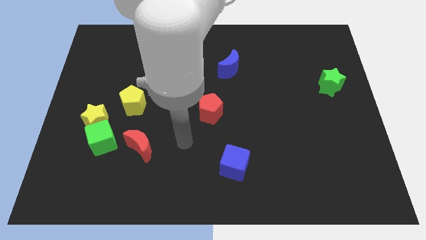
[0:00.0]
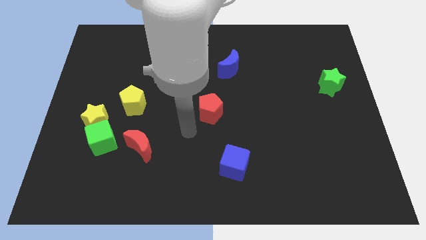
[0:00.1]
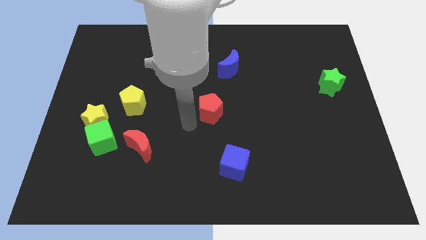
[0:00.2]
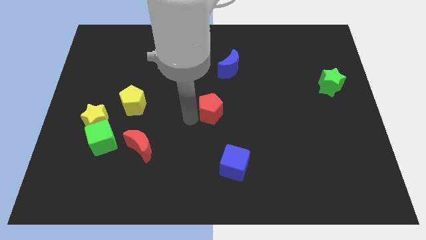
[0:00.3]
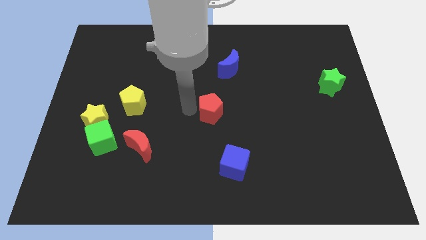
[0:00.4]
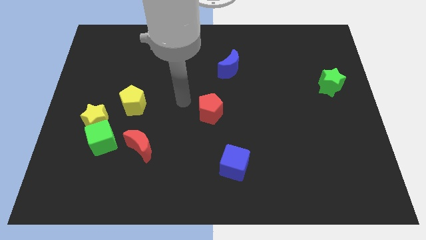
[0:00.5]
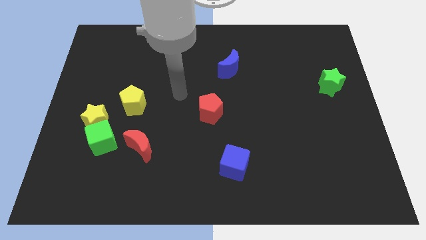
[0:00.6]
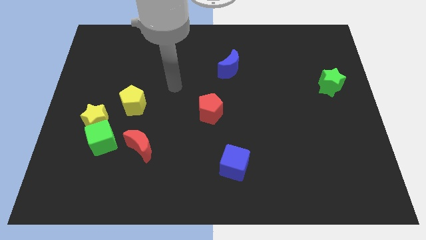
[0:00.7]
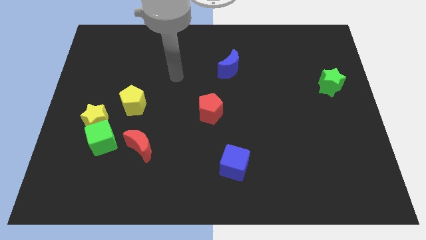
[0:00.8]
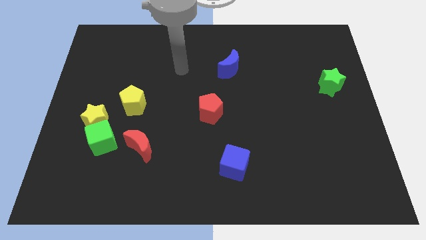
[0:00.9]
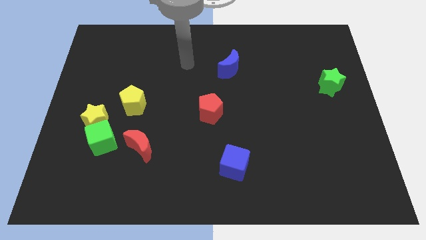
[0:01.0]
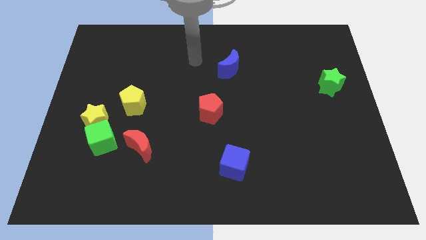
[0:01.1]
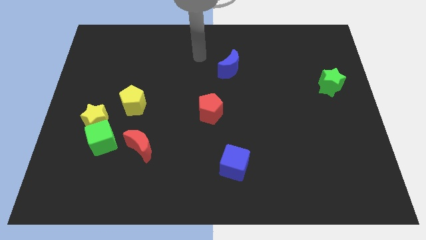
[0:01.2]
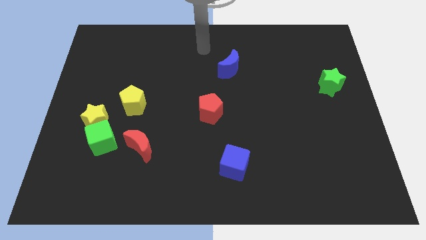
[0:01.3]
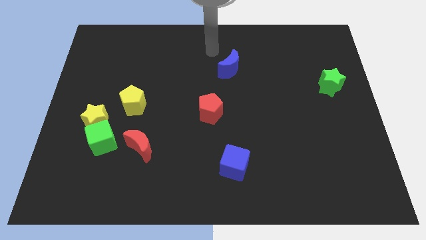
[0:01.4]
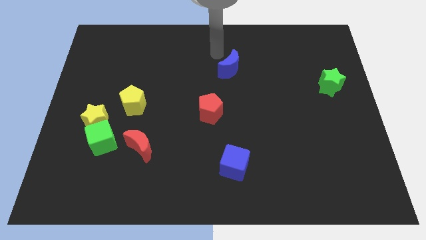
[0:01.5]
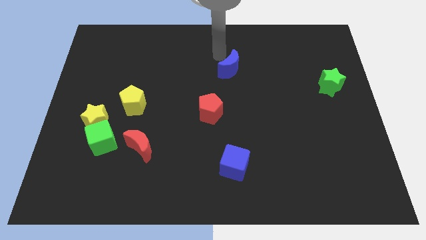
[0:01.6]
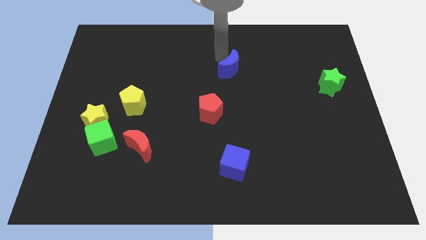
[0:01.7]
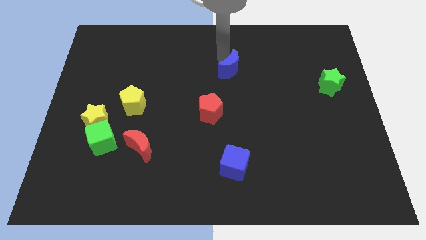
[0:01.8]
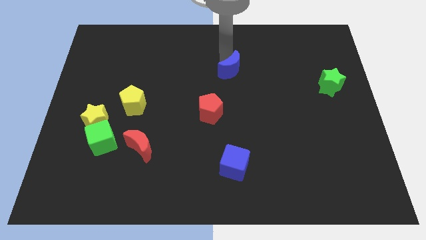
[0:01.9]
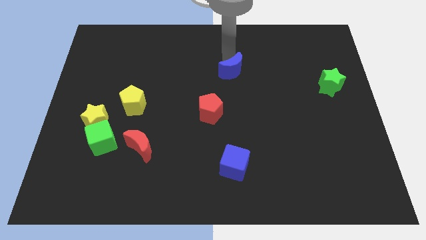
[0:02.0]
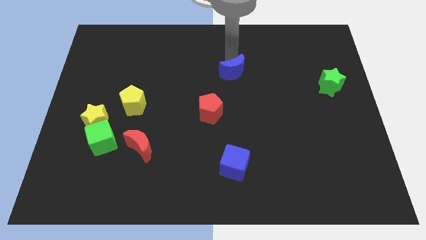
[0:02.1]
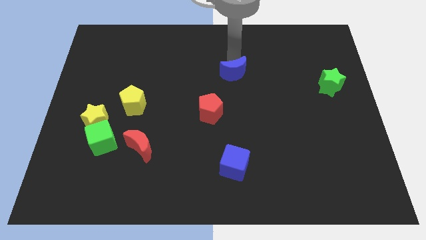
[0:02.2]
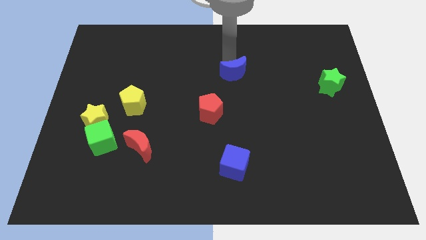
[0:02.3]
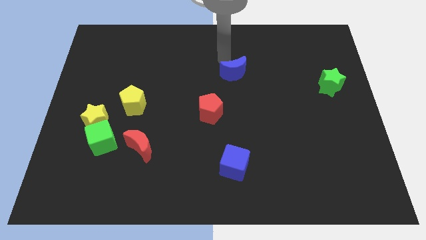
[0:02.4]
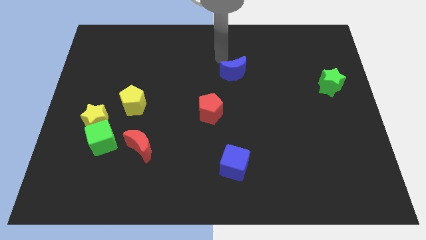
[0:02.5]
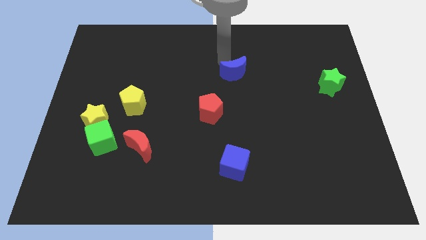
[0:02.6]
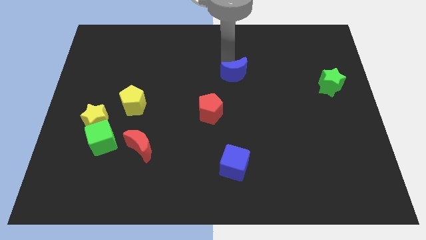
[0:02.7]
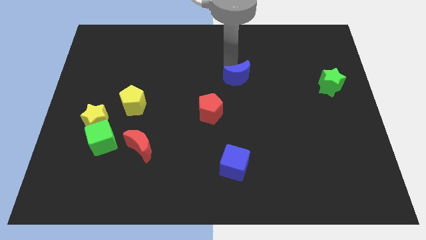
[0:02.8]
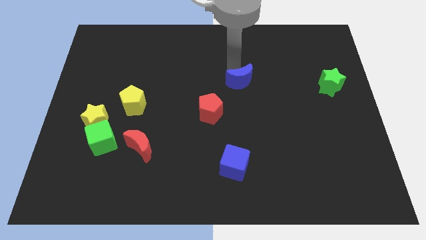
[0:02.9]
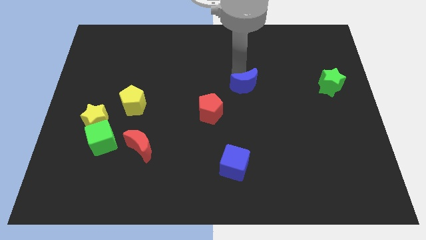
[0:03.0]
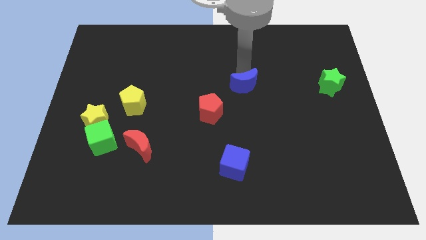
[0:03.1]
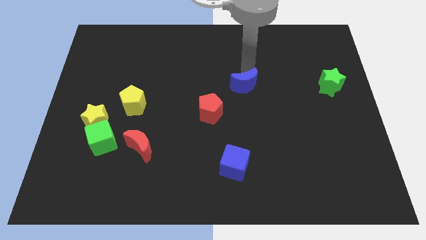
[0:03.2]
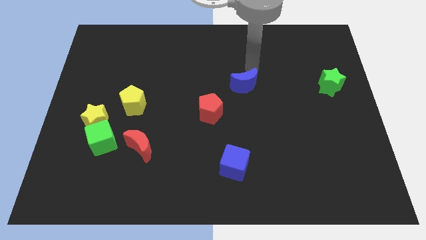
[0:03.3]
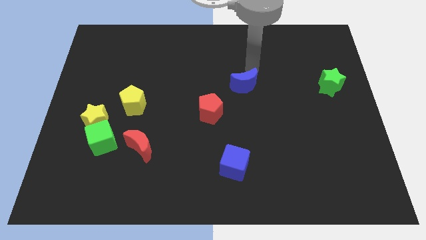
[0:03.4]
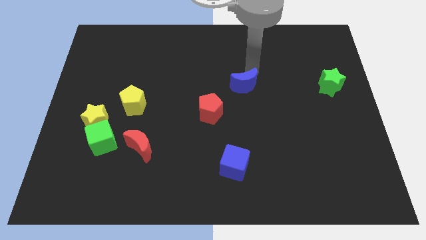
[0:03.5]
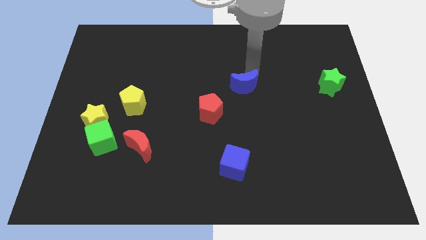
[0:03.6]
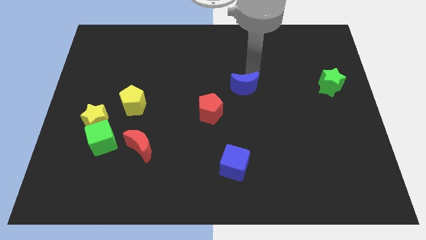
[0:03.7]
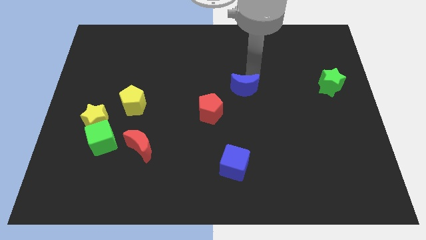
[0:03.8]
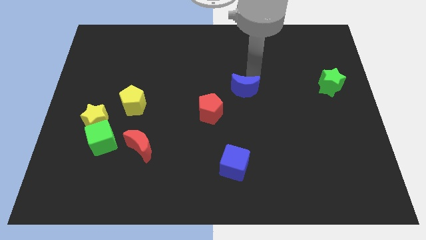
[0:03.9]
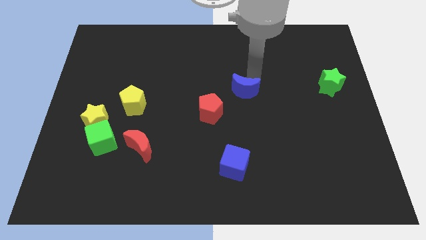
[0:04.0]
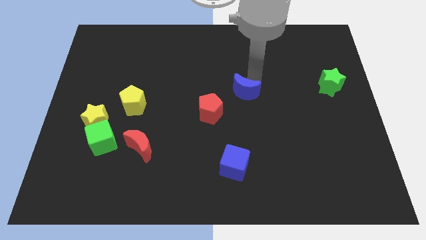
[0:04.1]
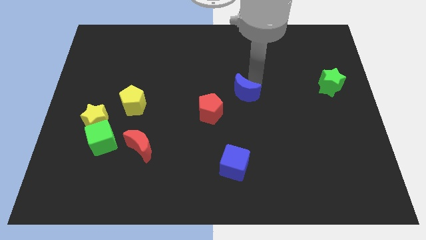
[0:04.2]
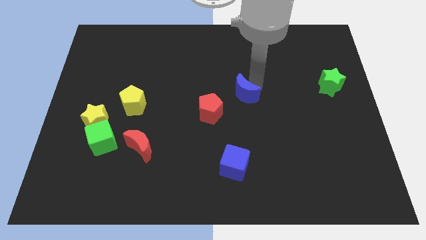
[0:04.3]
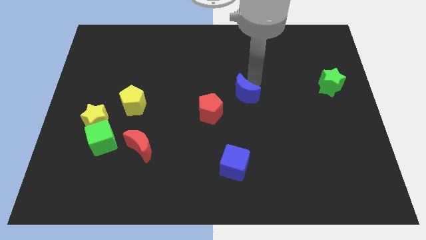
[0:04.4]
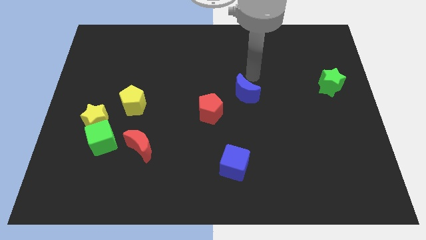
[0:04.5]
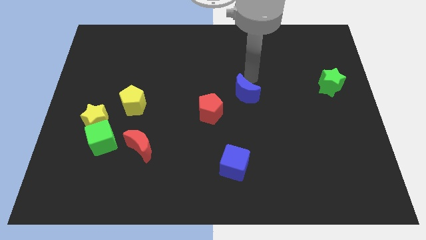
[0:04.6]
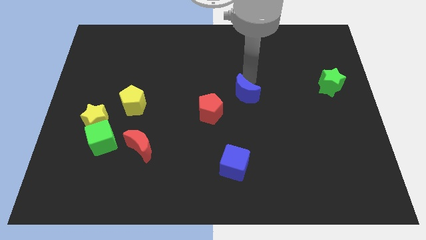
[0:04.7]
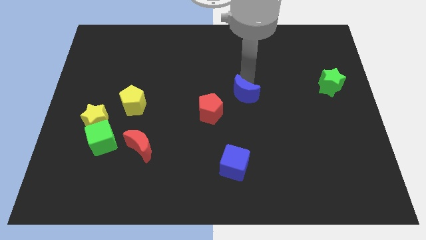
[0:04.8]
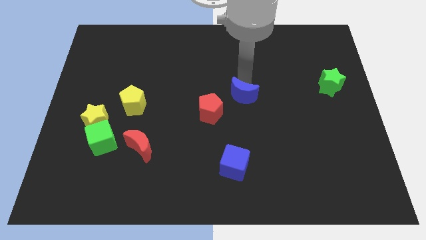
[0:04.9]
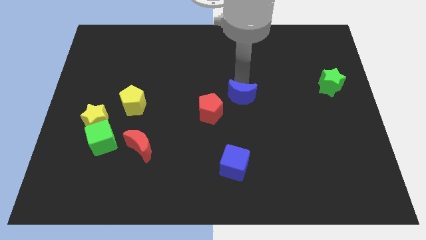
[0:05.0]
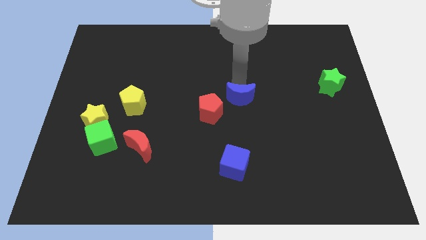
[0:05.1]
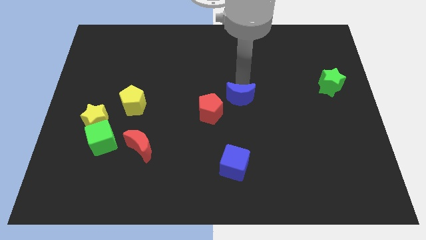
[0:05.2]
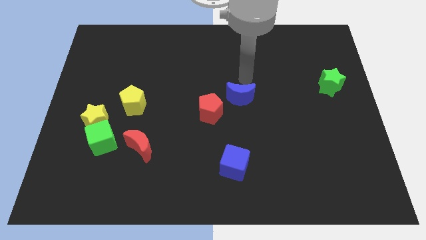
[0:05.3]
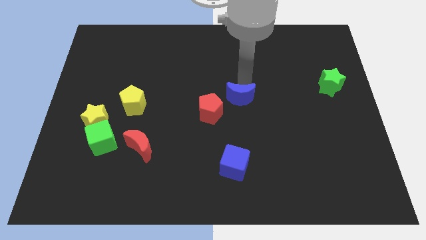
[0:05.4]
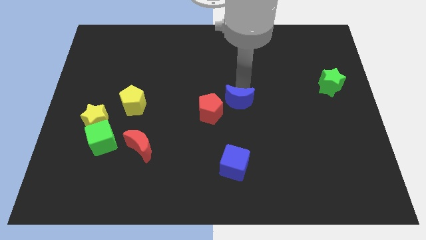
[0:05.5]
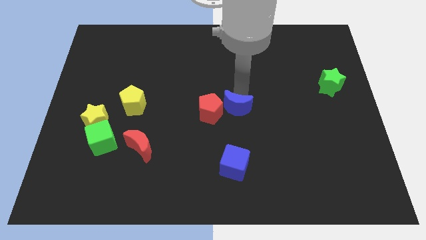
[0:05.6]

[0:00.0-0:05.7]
push the blue moon to the top of the blue cube

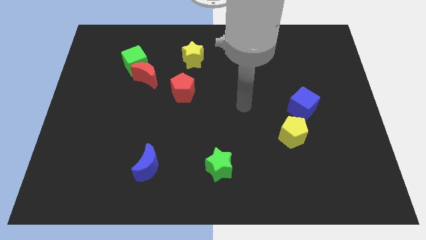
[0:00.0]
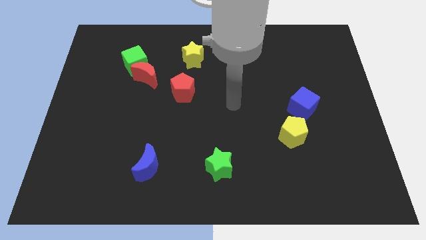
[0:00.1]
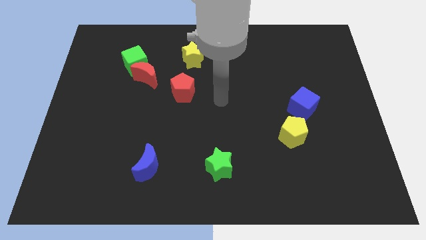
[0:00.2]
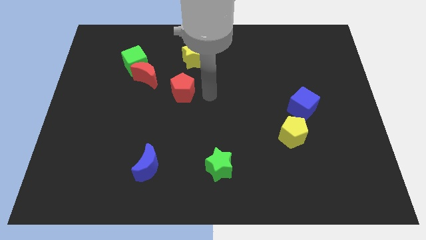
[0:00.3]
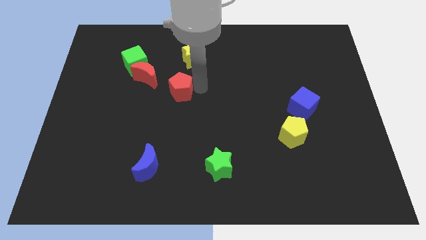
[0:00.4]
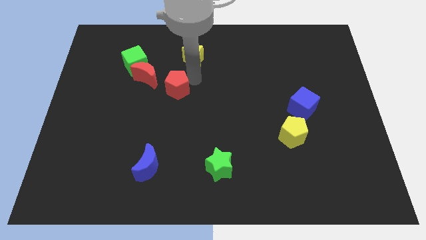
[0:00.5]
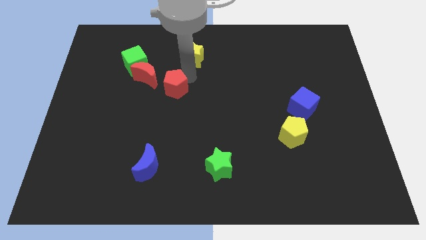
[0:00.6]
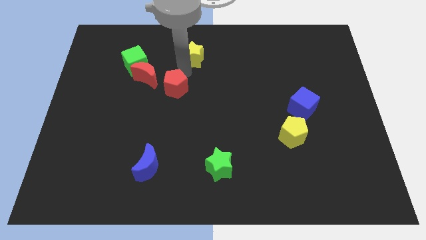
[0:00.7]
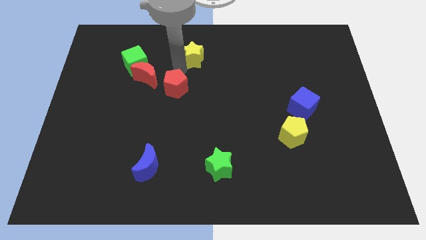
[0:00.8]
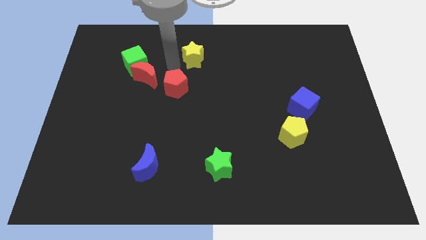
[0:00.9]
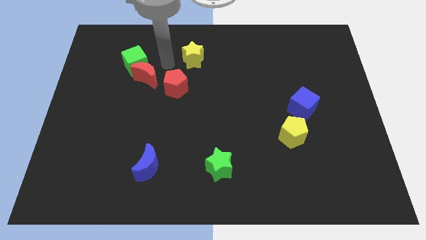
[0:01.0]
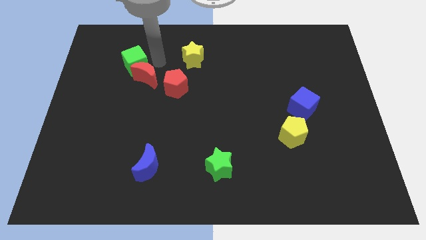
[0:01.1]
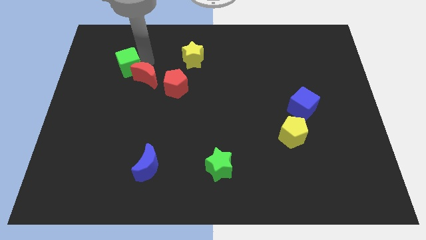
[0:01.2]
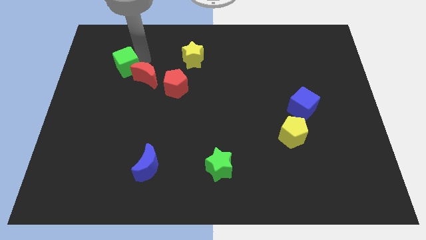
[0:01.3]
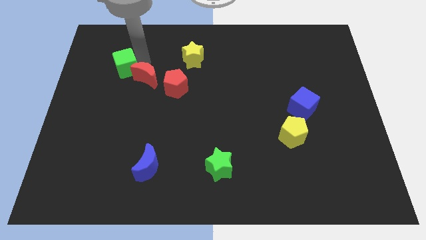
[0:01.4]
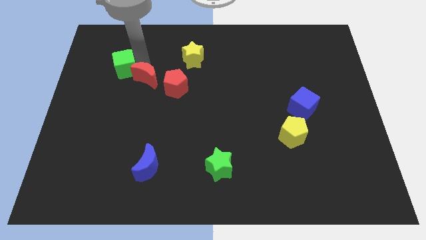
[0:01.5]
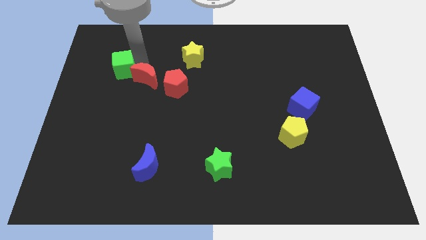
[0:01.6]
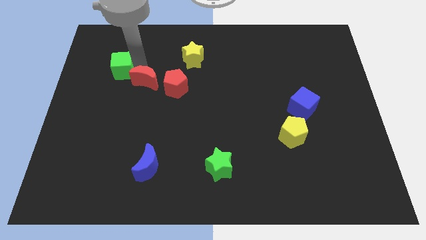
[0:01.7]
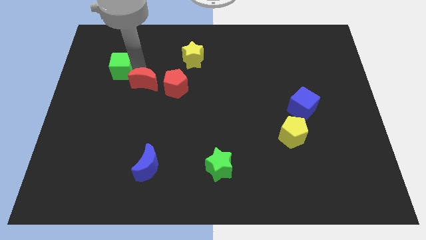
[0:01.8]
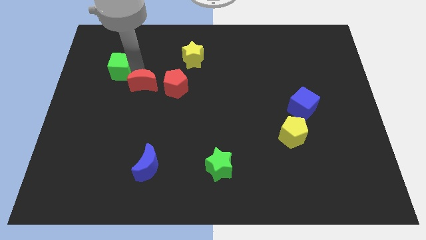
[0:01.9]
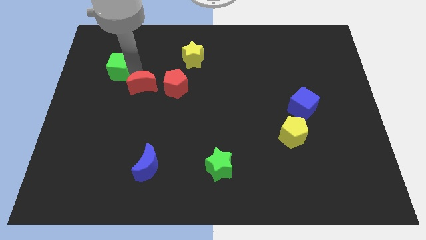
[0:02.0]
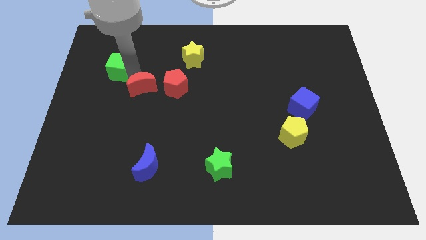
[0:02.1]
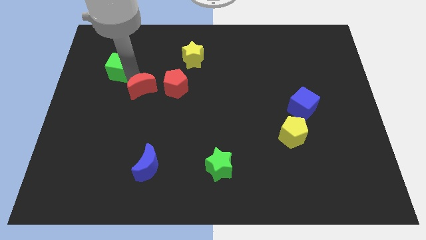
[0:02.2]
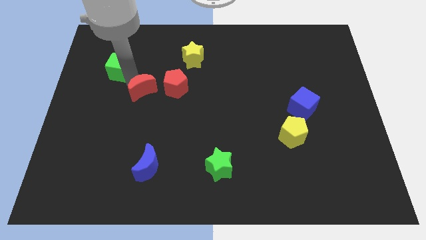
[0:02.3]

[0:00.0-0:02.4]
put the red moon diagonally down and to the left of the red pentagon
